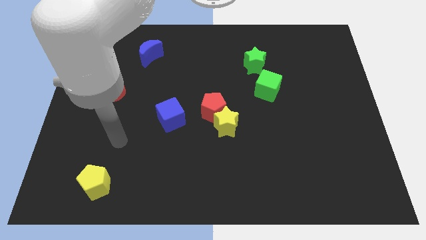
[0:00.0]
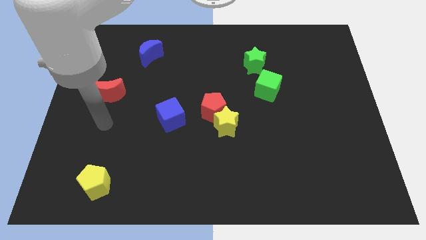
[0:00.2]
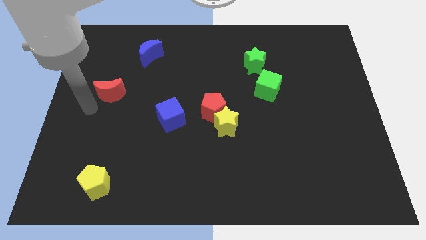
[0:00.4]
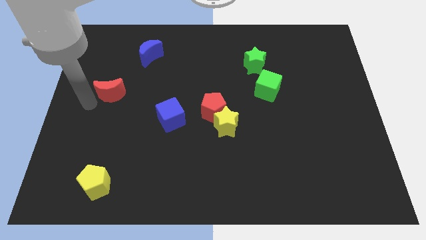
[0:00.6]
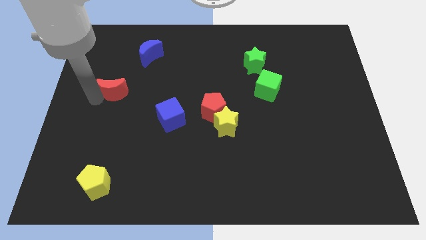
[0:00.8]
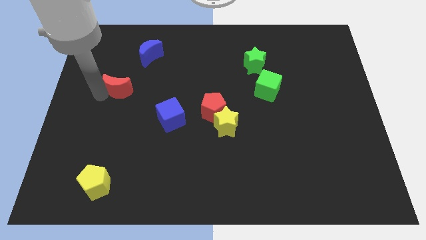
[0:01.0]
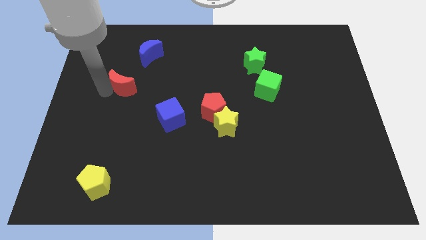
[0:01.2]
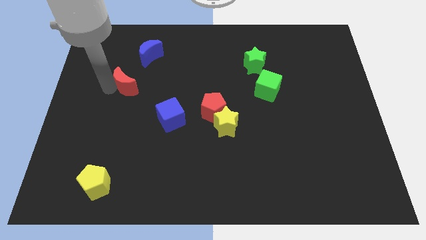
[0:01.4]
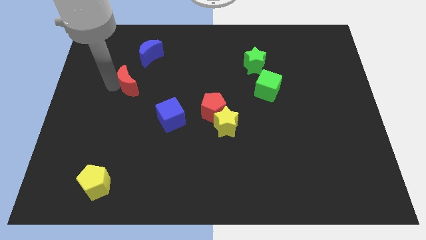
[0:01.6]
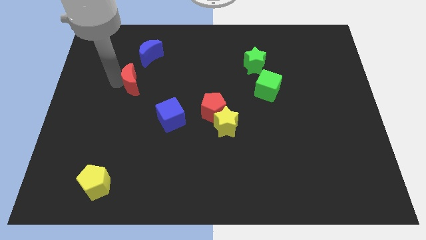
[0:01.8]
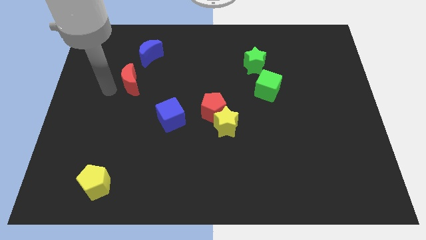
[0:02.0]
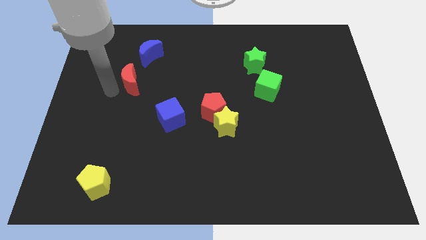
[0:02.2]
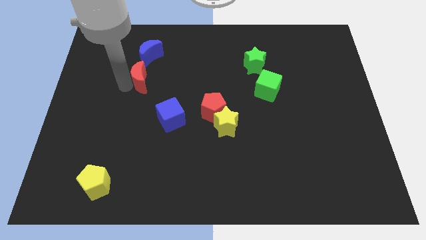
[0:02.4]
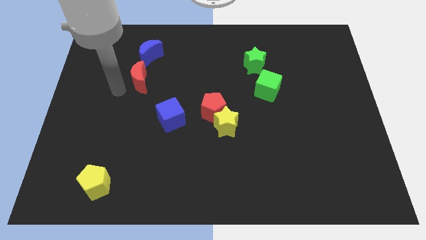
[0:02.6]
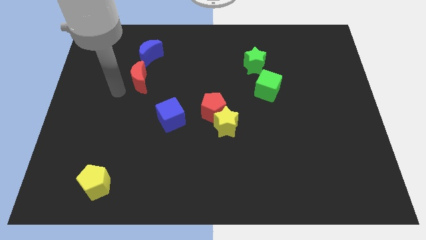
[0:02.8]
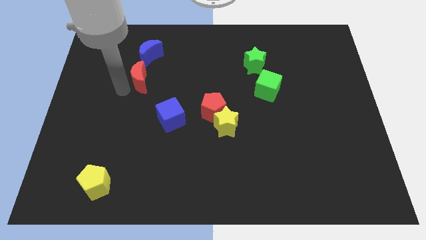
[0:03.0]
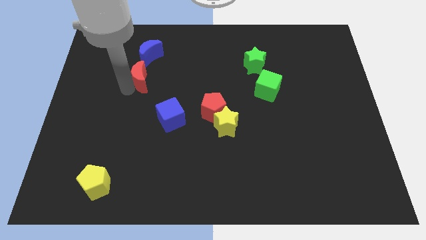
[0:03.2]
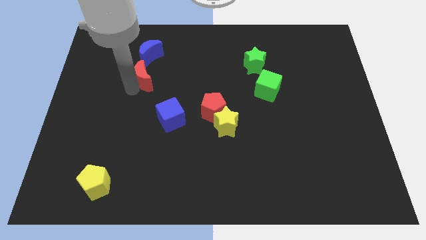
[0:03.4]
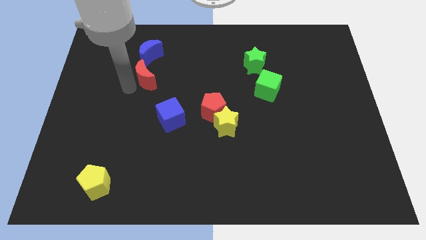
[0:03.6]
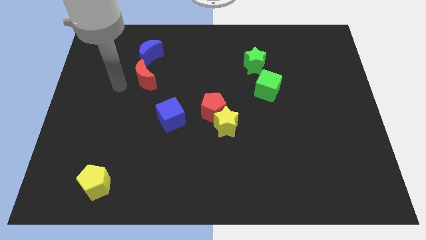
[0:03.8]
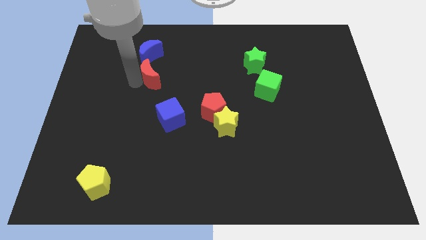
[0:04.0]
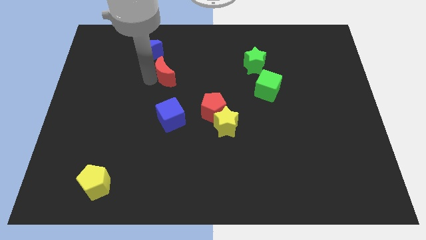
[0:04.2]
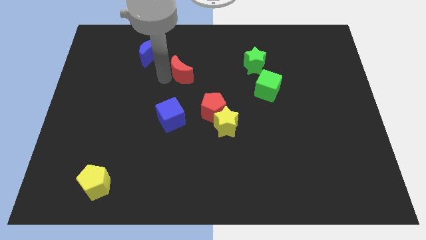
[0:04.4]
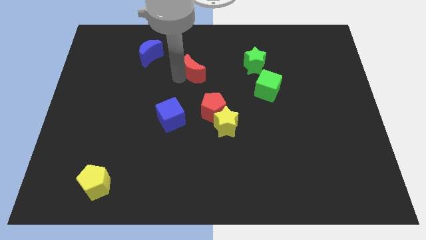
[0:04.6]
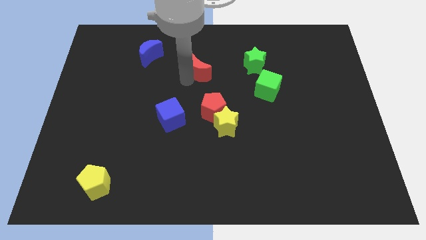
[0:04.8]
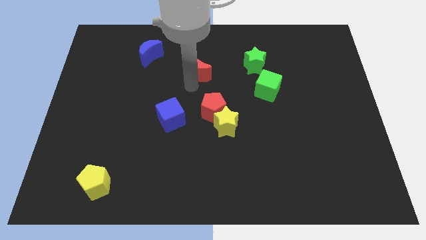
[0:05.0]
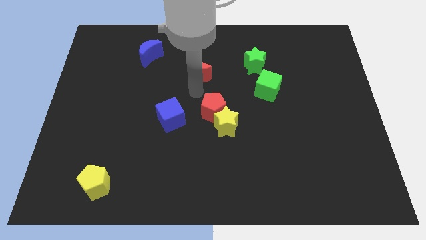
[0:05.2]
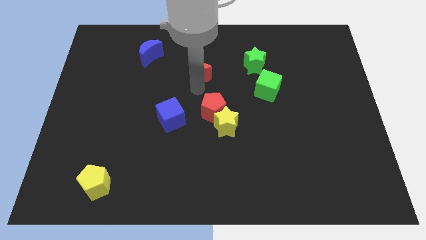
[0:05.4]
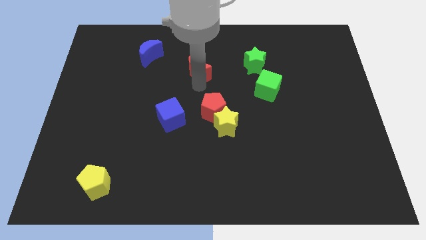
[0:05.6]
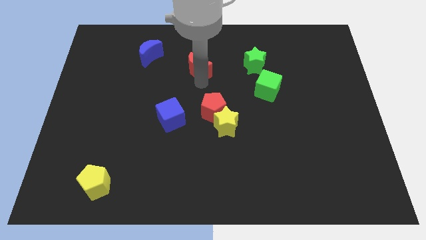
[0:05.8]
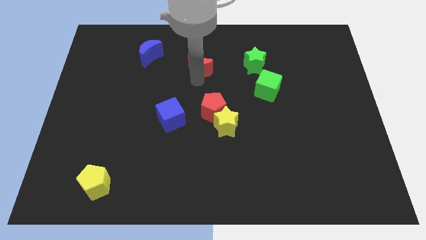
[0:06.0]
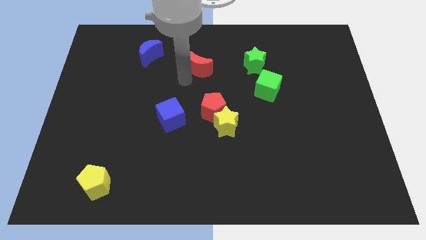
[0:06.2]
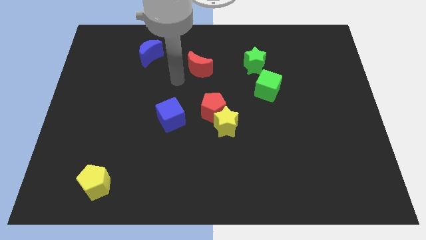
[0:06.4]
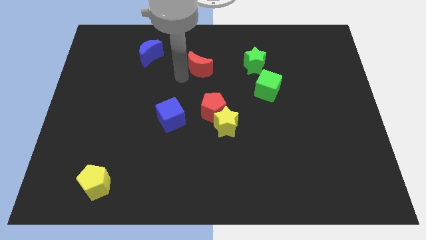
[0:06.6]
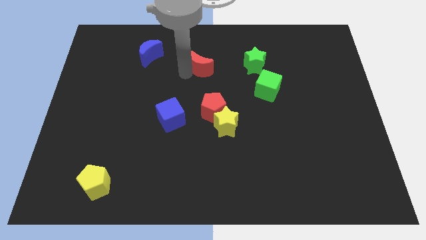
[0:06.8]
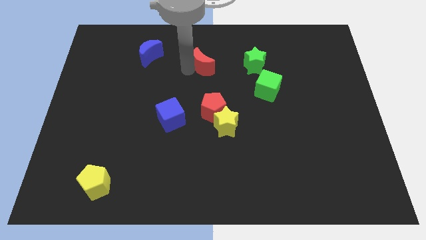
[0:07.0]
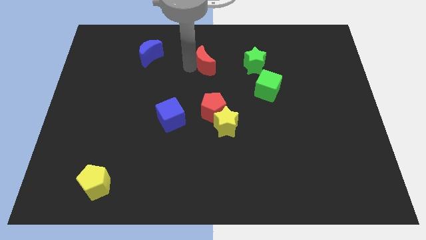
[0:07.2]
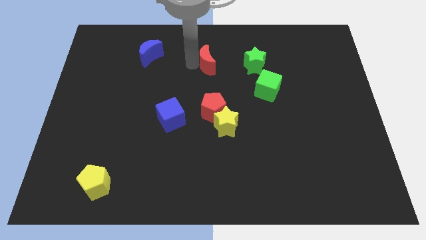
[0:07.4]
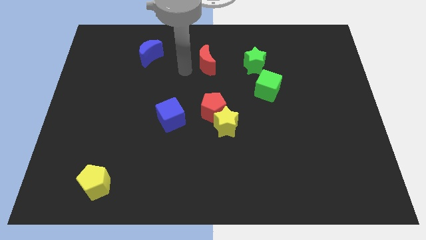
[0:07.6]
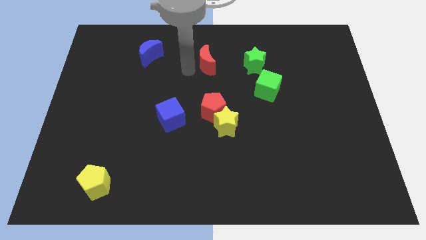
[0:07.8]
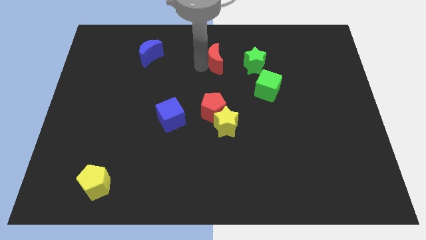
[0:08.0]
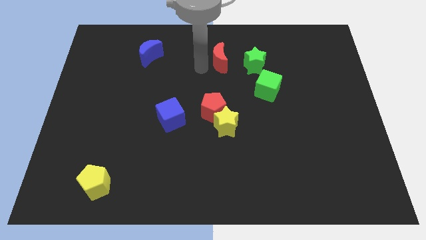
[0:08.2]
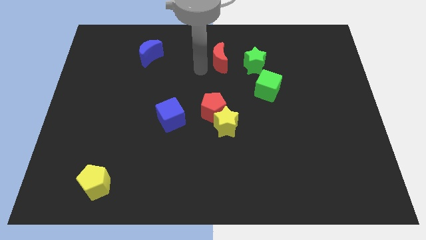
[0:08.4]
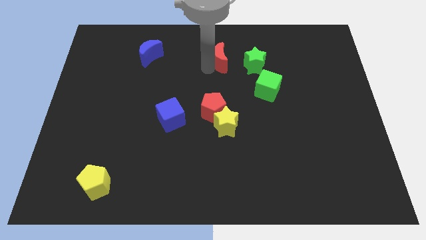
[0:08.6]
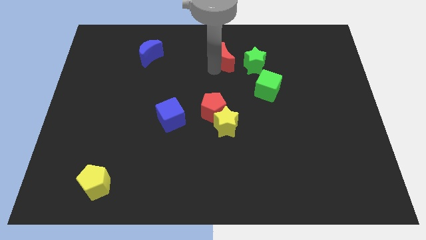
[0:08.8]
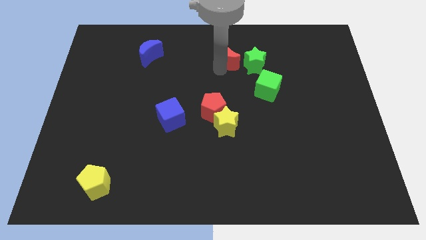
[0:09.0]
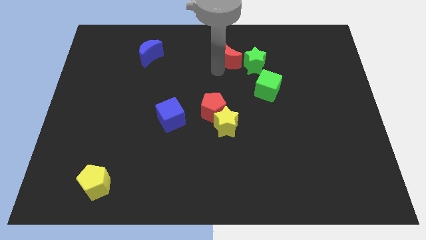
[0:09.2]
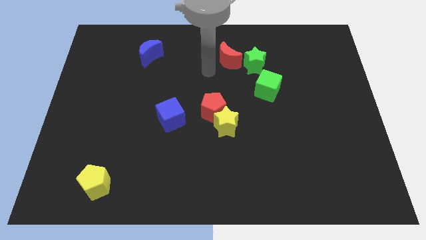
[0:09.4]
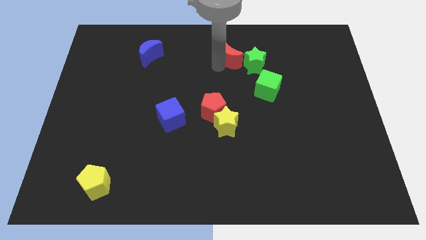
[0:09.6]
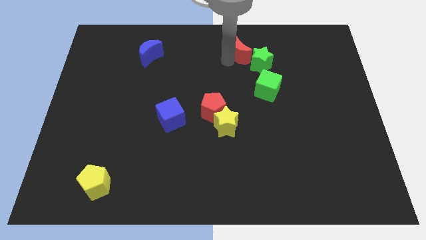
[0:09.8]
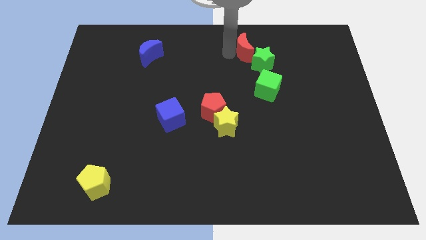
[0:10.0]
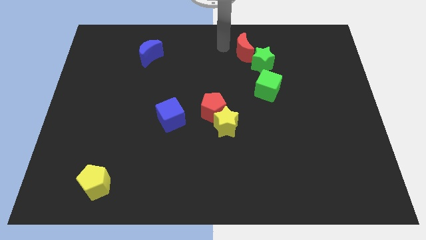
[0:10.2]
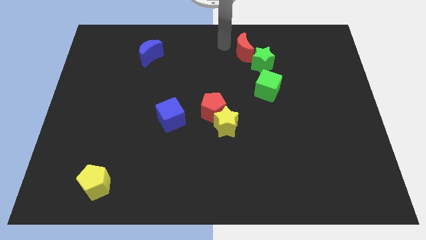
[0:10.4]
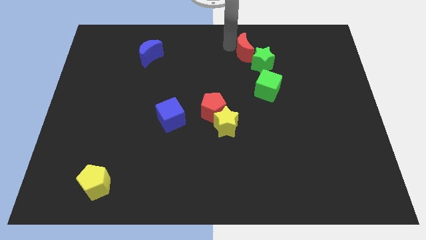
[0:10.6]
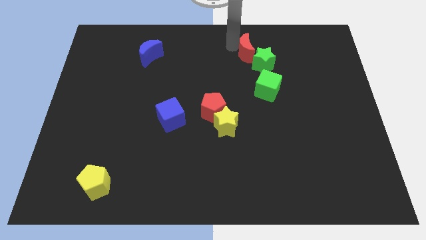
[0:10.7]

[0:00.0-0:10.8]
push the red moon to the top side of the green cube
